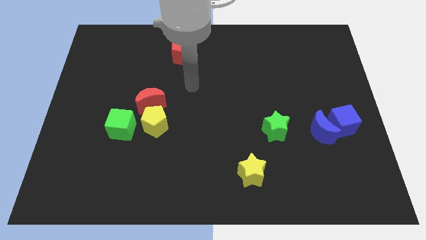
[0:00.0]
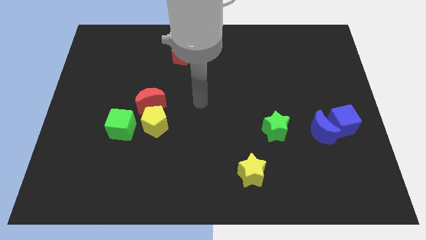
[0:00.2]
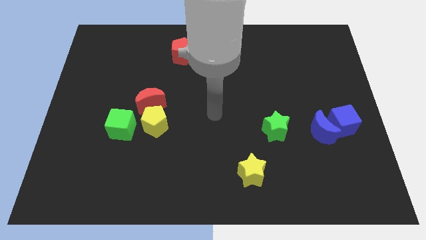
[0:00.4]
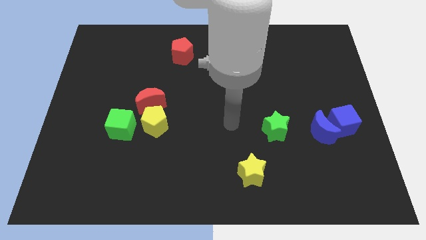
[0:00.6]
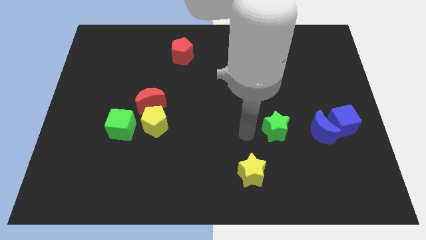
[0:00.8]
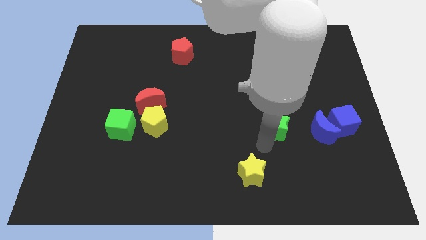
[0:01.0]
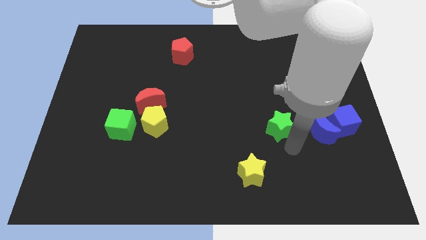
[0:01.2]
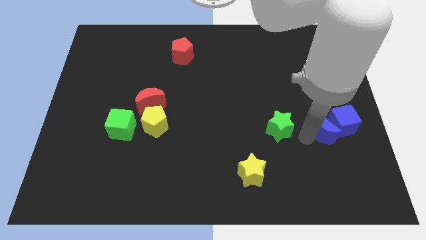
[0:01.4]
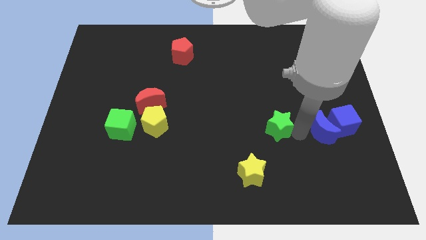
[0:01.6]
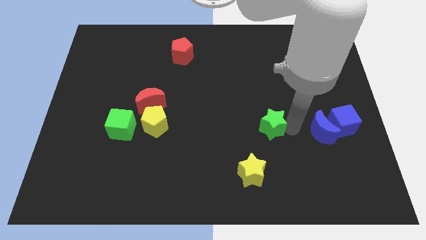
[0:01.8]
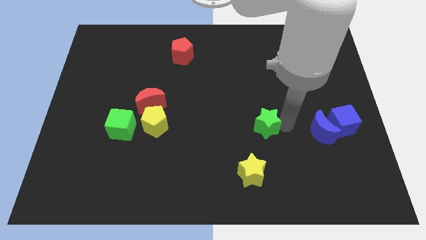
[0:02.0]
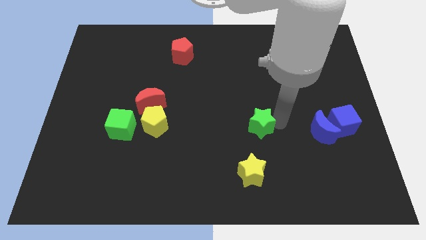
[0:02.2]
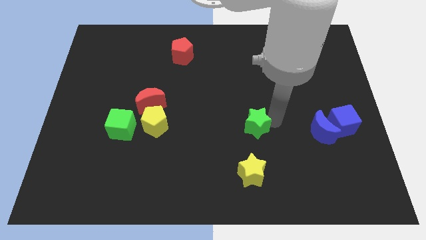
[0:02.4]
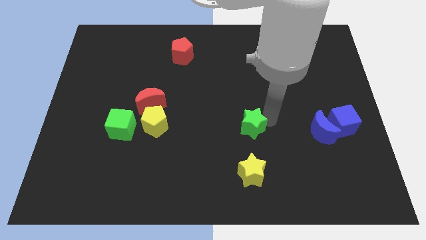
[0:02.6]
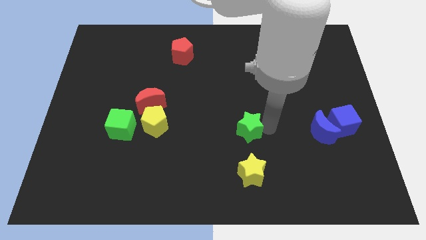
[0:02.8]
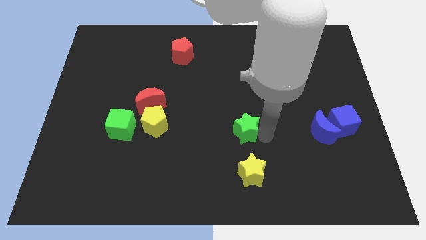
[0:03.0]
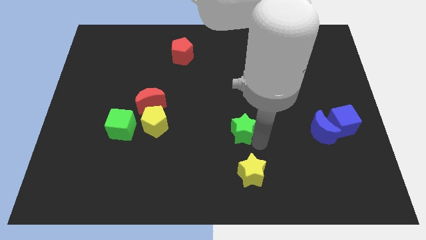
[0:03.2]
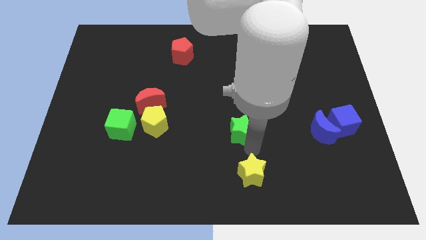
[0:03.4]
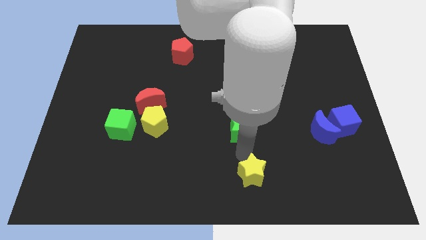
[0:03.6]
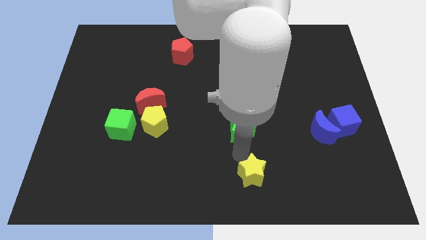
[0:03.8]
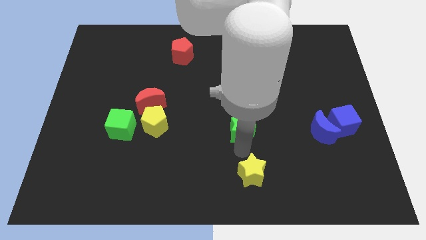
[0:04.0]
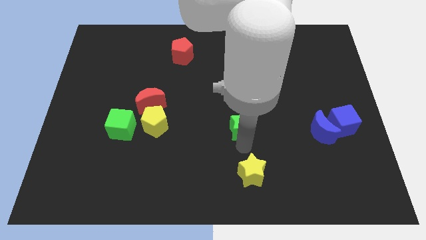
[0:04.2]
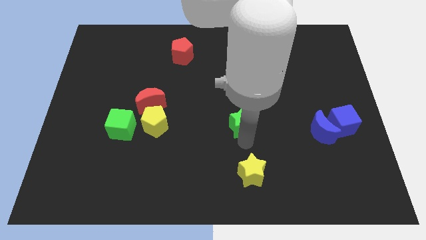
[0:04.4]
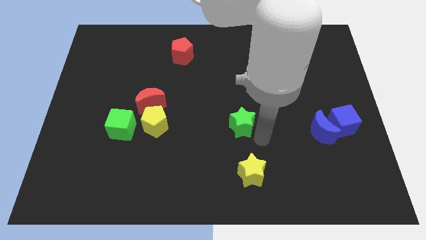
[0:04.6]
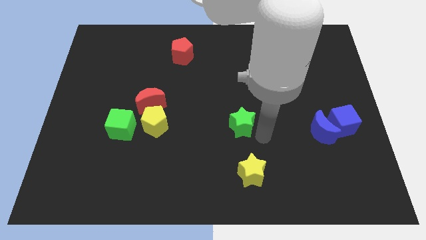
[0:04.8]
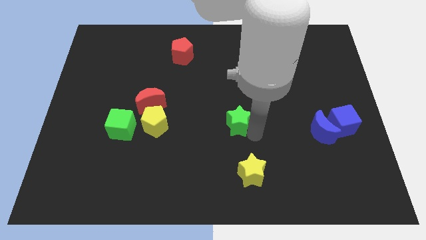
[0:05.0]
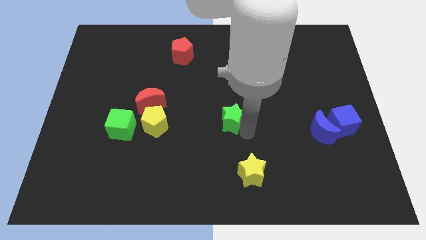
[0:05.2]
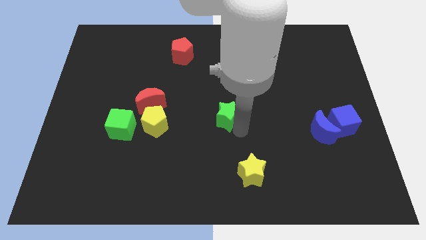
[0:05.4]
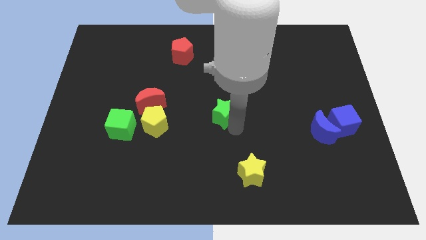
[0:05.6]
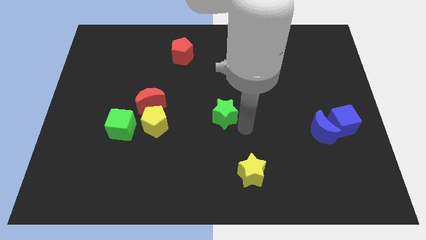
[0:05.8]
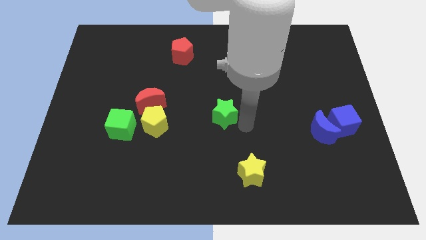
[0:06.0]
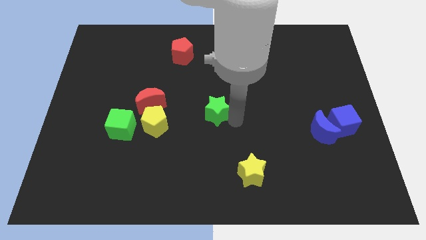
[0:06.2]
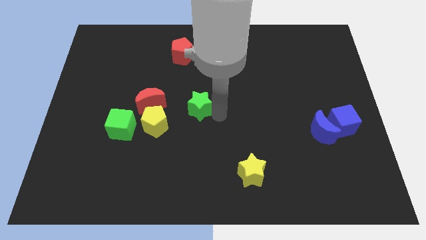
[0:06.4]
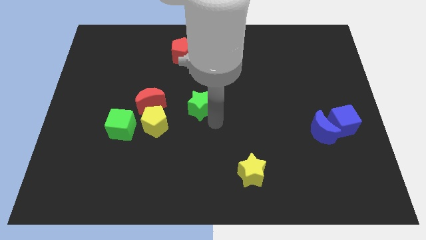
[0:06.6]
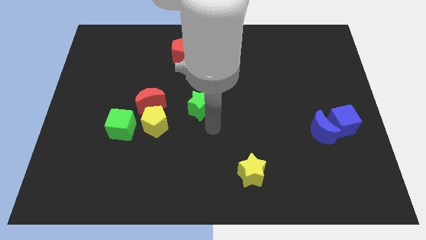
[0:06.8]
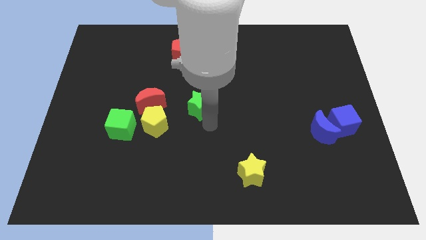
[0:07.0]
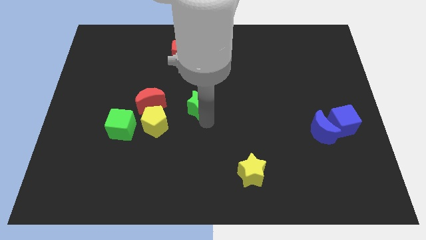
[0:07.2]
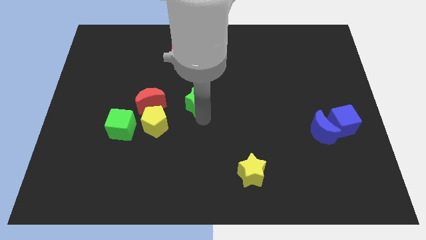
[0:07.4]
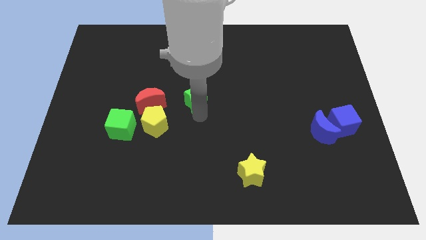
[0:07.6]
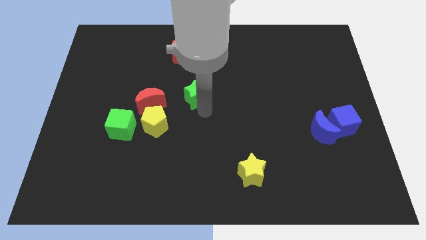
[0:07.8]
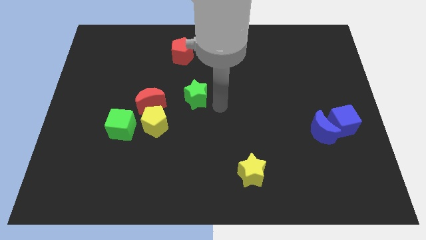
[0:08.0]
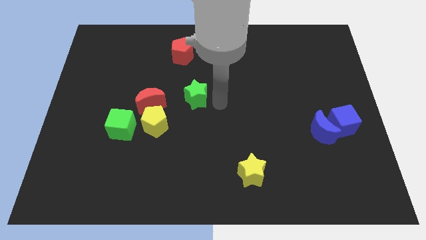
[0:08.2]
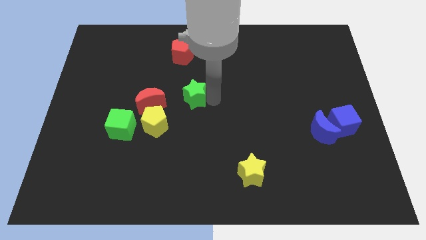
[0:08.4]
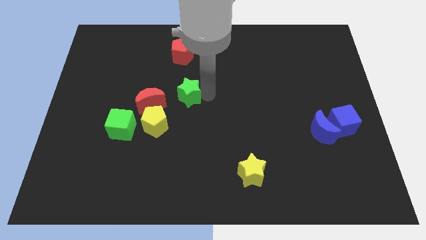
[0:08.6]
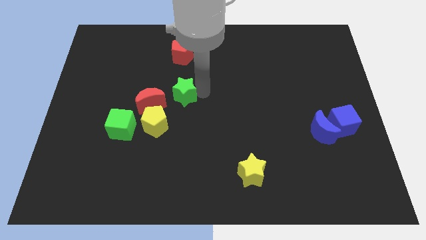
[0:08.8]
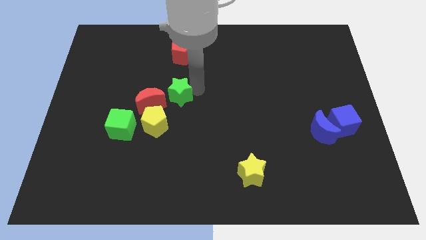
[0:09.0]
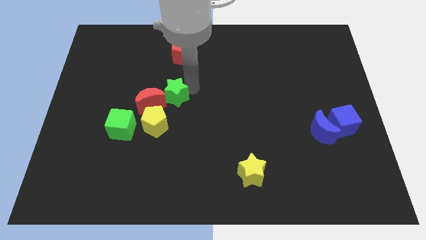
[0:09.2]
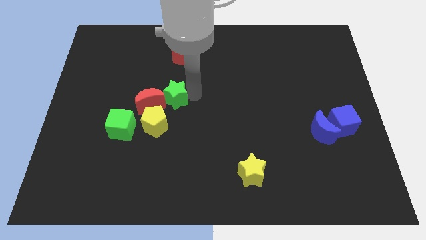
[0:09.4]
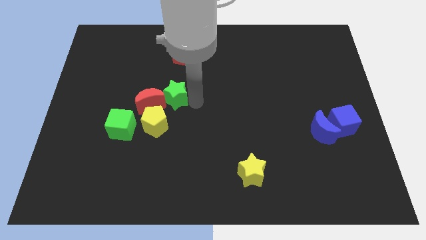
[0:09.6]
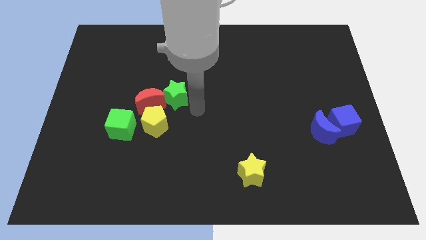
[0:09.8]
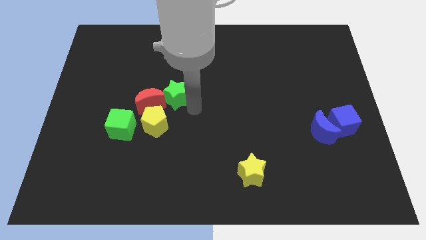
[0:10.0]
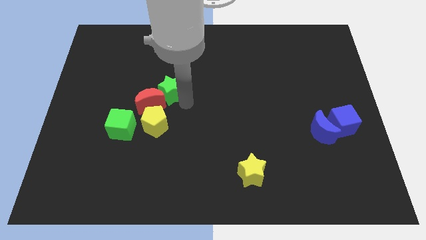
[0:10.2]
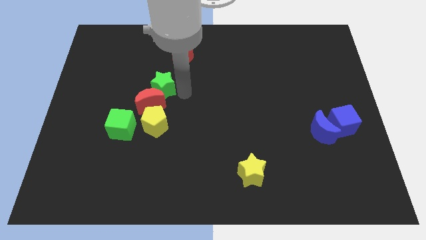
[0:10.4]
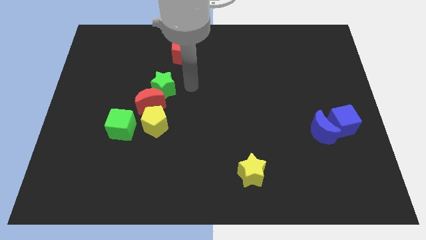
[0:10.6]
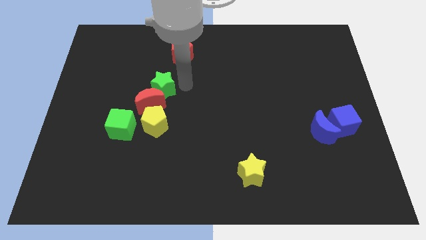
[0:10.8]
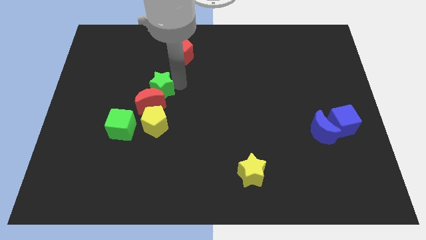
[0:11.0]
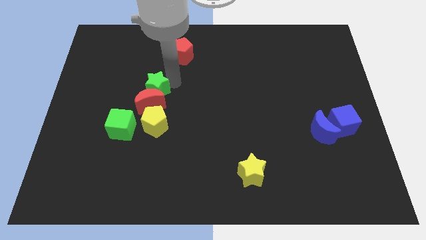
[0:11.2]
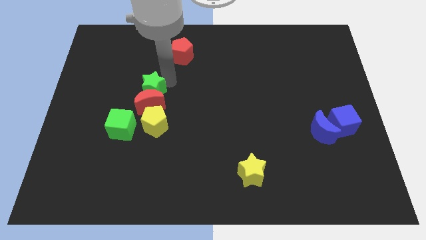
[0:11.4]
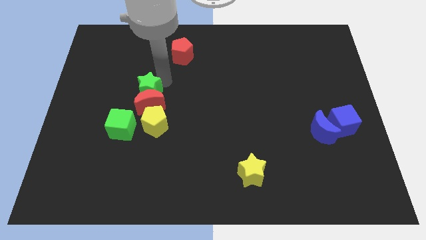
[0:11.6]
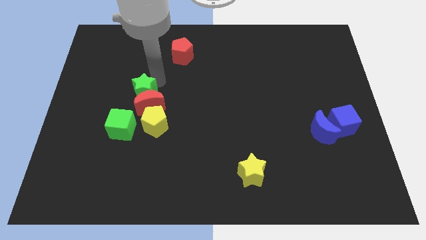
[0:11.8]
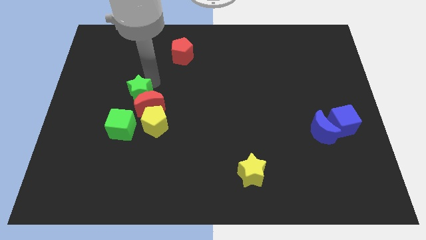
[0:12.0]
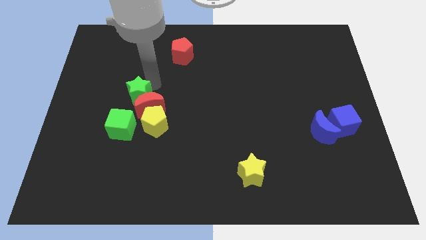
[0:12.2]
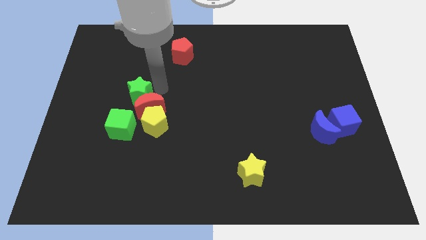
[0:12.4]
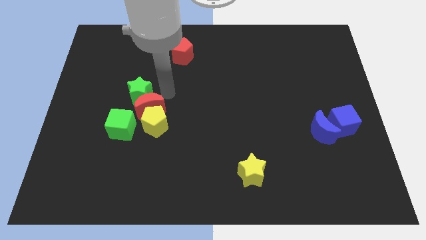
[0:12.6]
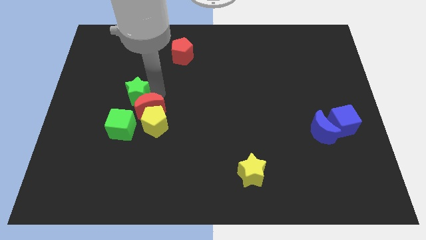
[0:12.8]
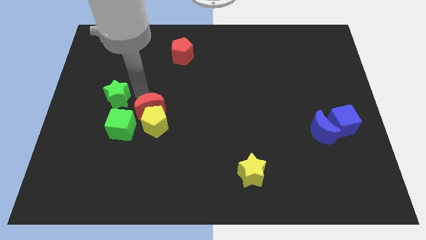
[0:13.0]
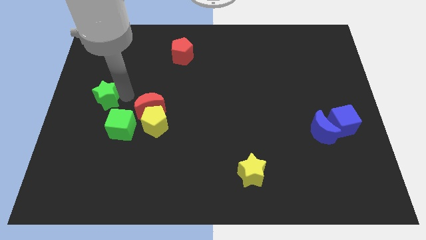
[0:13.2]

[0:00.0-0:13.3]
slide the green star to the left side

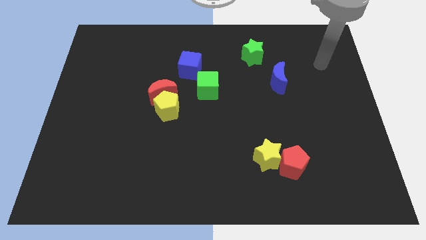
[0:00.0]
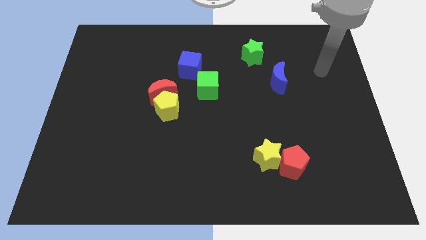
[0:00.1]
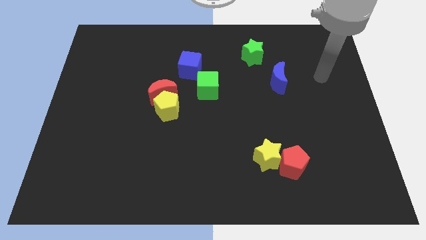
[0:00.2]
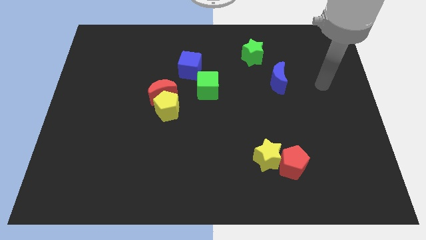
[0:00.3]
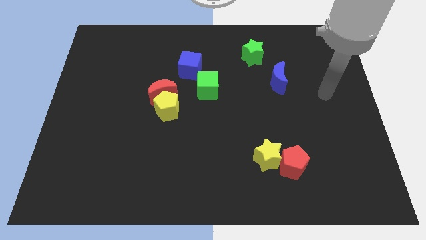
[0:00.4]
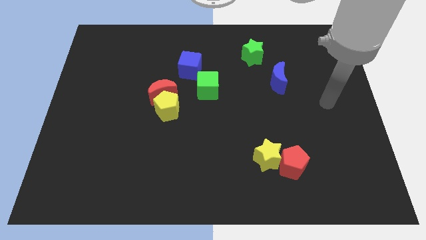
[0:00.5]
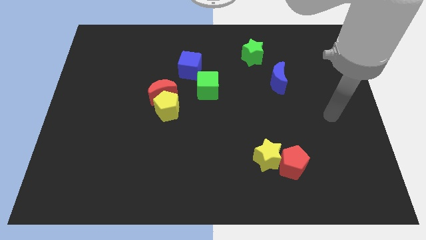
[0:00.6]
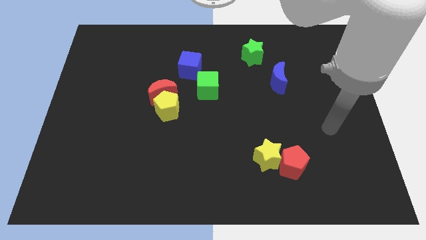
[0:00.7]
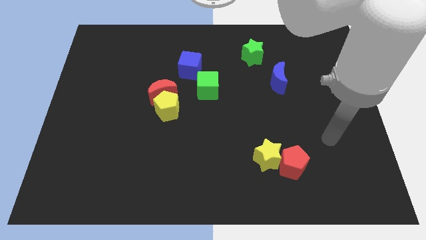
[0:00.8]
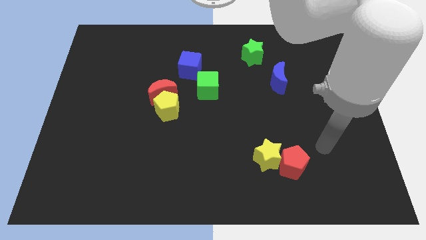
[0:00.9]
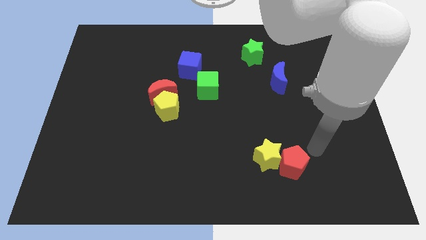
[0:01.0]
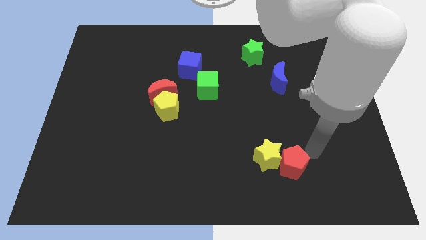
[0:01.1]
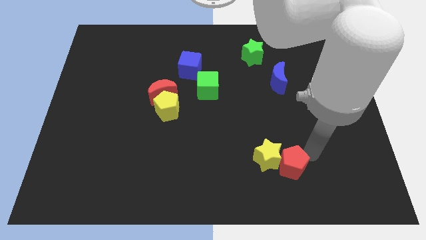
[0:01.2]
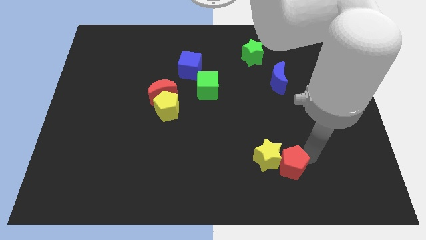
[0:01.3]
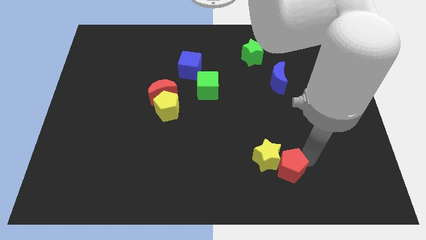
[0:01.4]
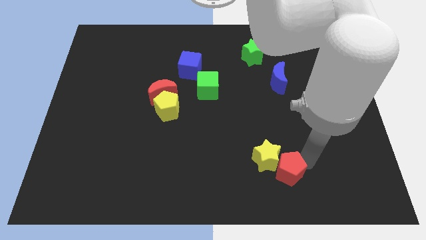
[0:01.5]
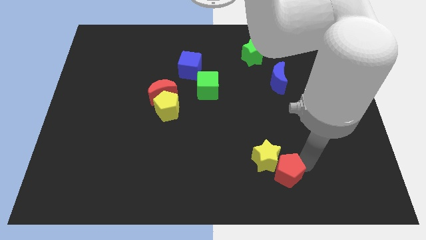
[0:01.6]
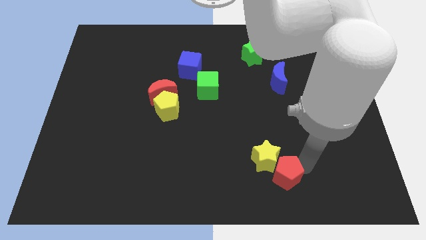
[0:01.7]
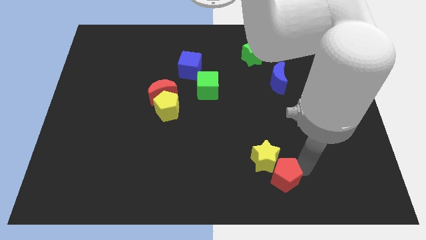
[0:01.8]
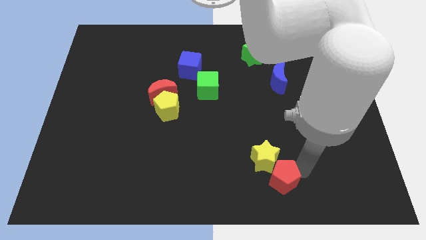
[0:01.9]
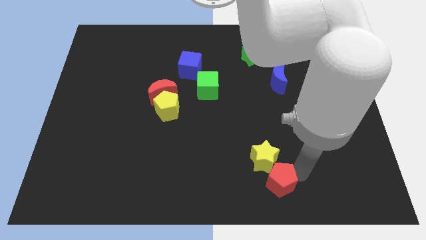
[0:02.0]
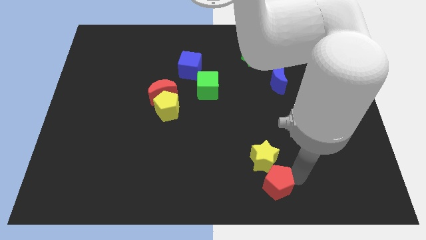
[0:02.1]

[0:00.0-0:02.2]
put the red pentagon to the bottom
